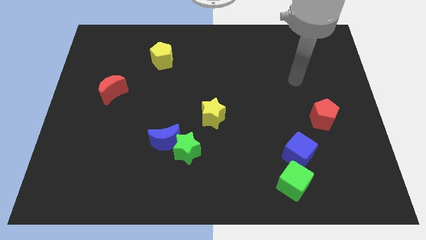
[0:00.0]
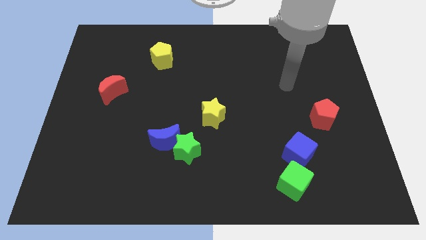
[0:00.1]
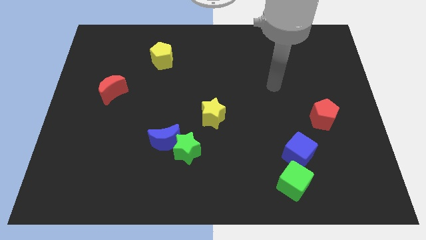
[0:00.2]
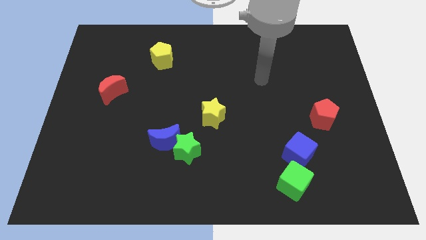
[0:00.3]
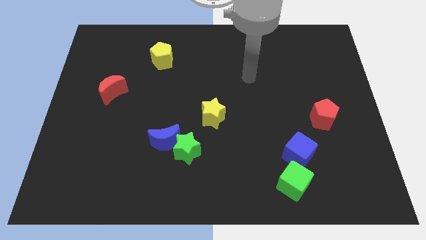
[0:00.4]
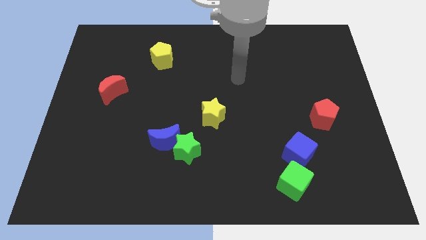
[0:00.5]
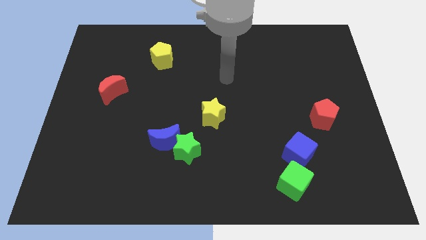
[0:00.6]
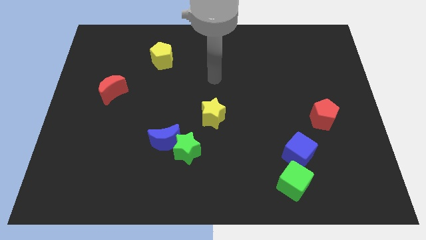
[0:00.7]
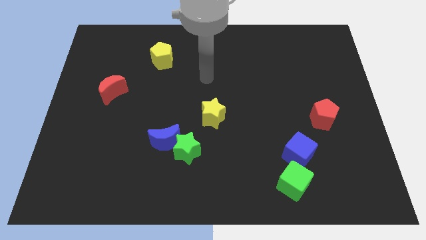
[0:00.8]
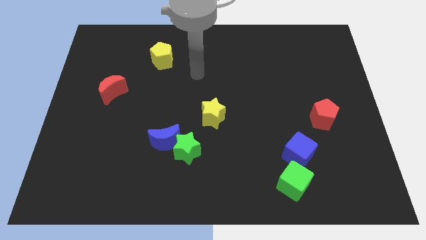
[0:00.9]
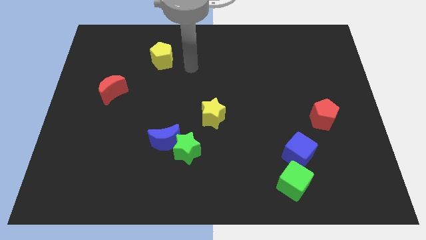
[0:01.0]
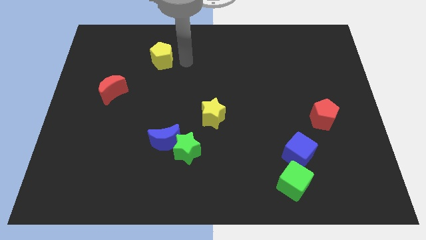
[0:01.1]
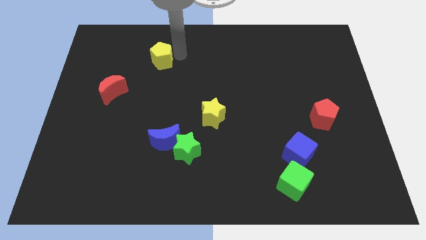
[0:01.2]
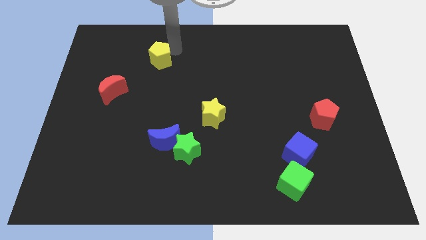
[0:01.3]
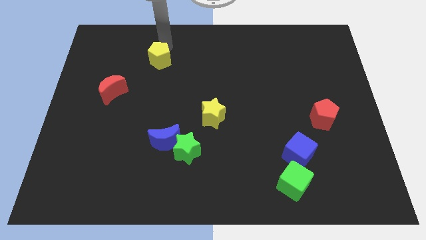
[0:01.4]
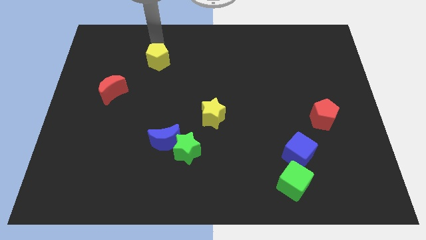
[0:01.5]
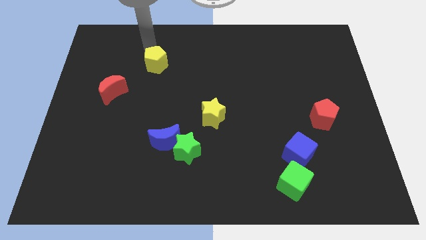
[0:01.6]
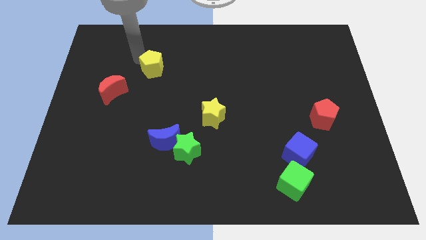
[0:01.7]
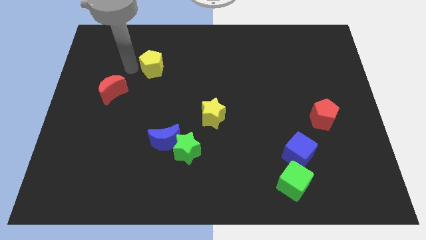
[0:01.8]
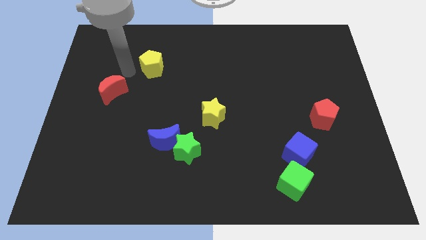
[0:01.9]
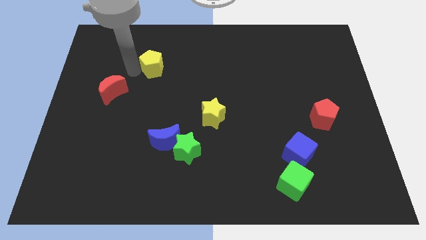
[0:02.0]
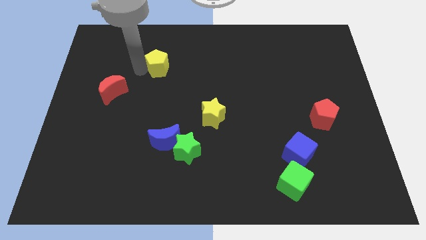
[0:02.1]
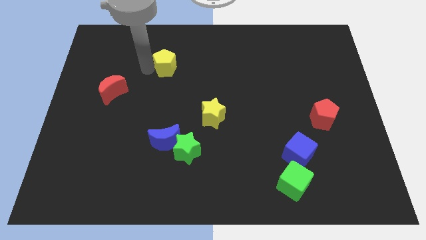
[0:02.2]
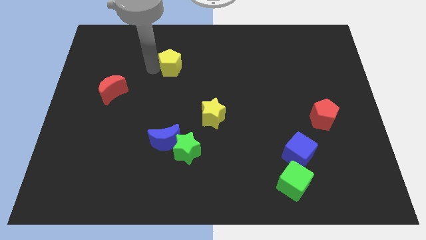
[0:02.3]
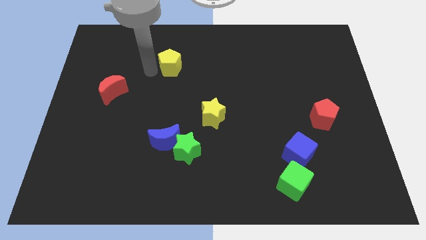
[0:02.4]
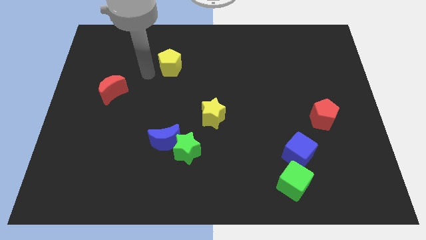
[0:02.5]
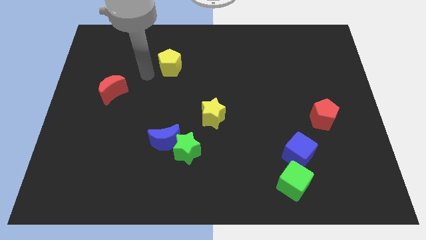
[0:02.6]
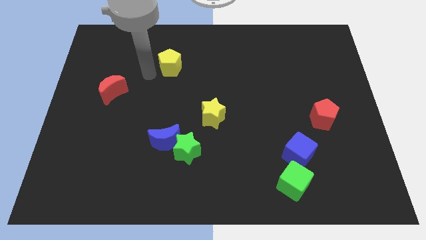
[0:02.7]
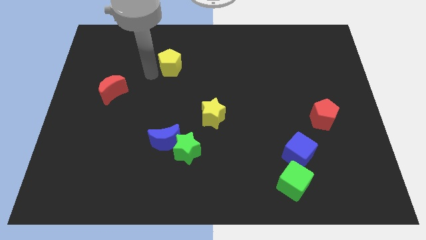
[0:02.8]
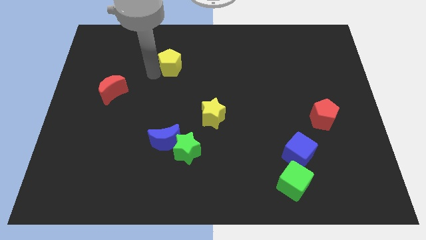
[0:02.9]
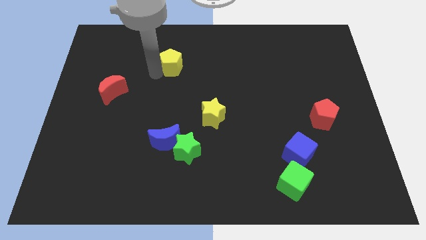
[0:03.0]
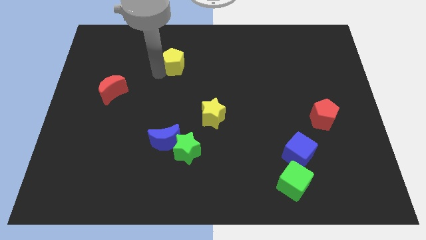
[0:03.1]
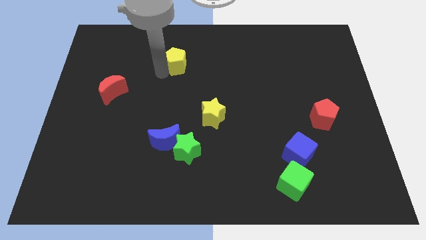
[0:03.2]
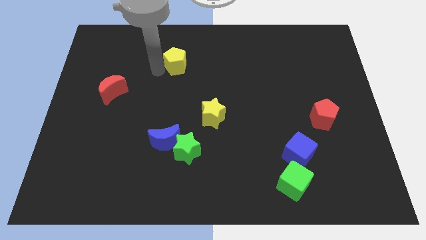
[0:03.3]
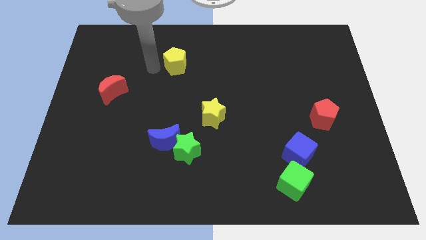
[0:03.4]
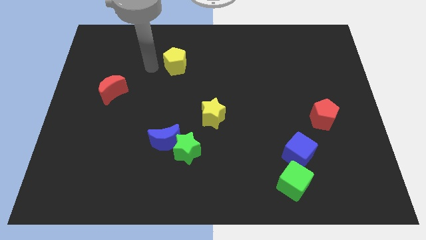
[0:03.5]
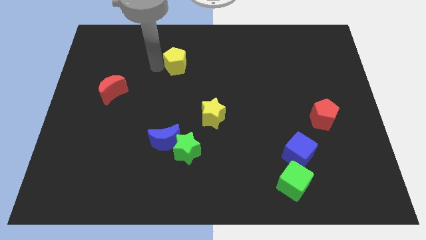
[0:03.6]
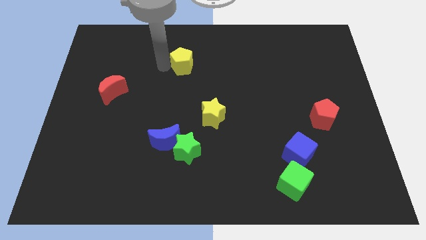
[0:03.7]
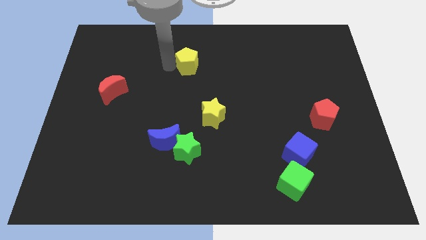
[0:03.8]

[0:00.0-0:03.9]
slightly move the yellow pentagon to the right

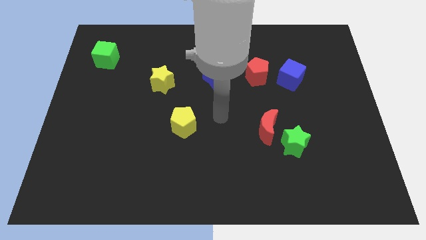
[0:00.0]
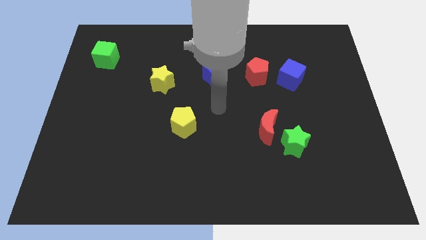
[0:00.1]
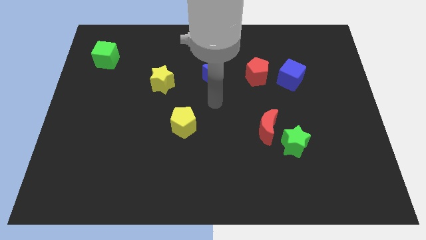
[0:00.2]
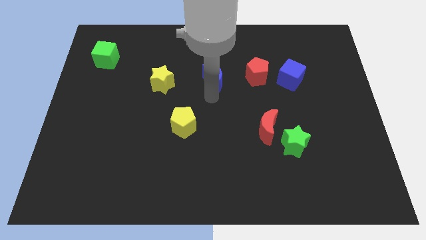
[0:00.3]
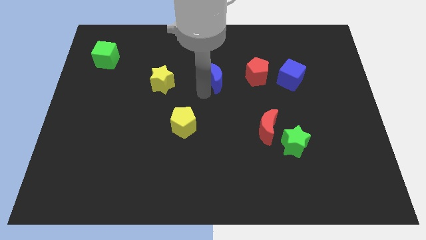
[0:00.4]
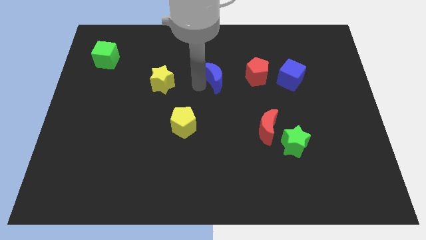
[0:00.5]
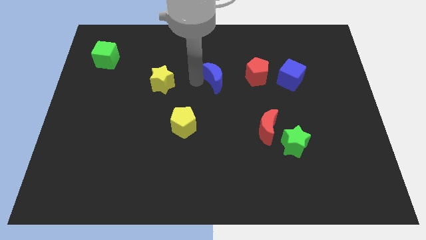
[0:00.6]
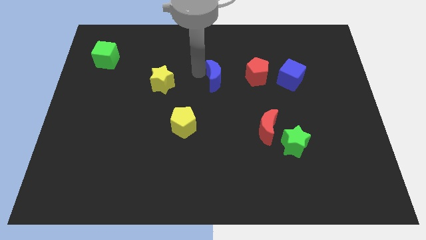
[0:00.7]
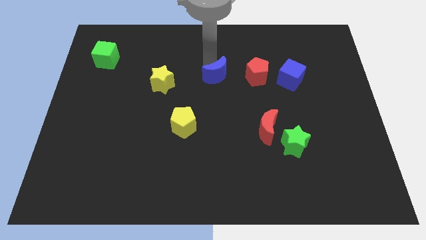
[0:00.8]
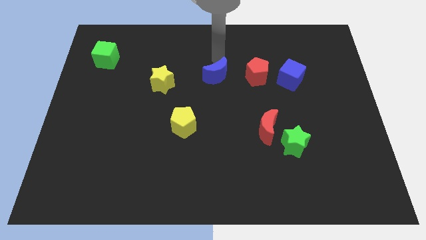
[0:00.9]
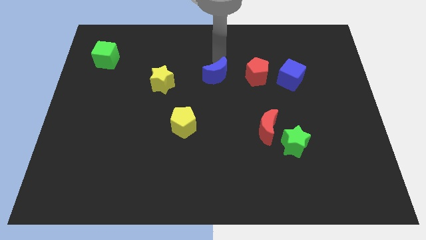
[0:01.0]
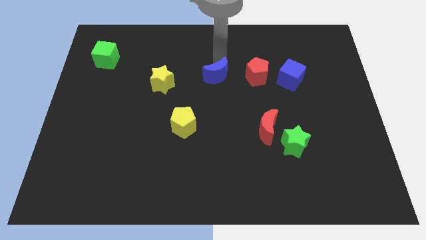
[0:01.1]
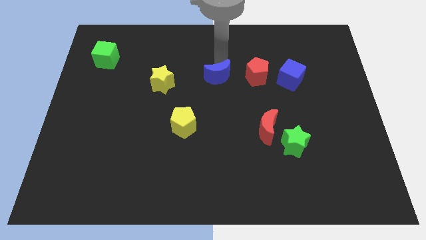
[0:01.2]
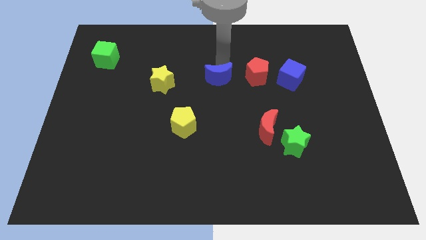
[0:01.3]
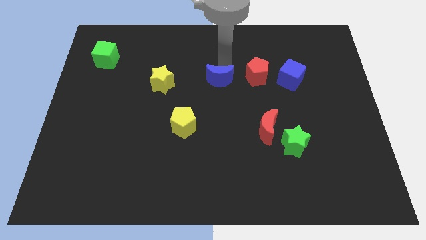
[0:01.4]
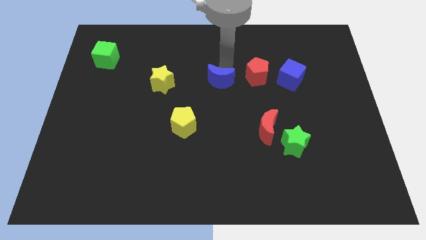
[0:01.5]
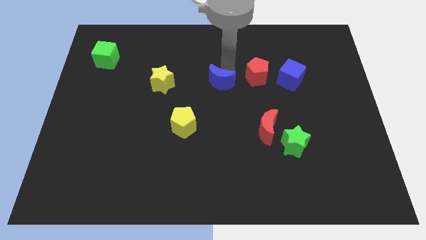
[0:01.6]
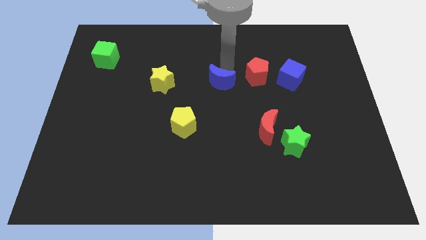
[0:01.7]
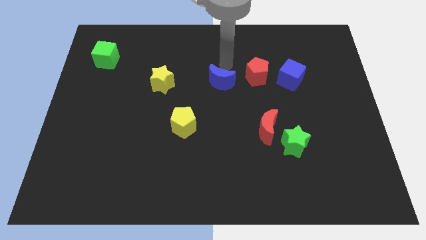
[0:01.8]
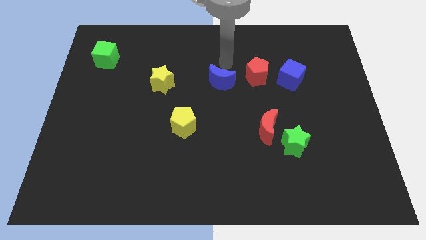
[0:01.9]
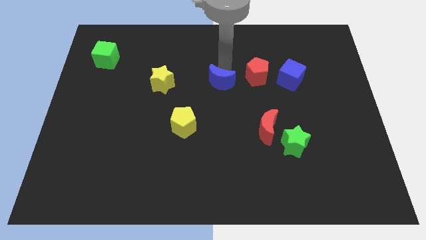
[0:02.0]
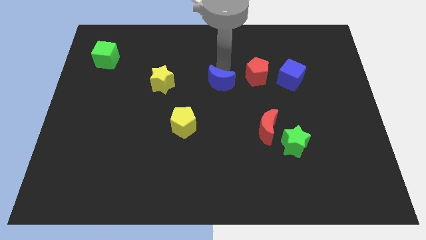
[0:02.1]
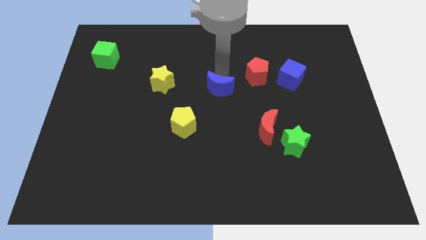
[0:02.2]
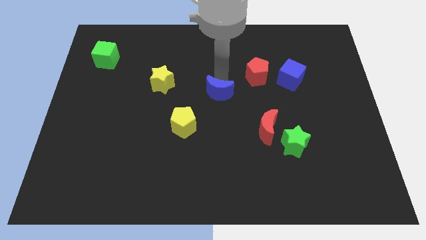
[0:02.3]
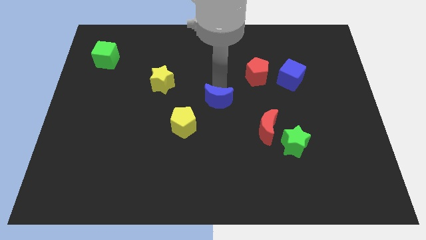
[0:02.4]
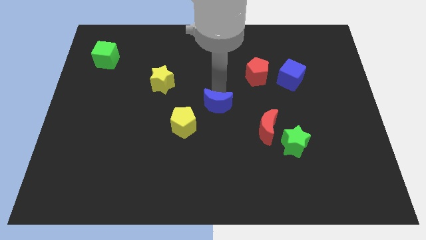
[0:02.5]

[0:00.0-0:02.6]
slide the blue moon somewhat down

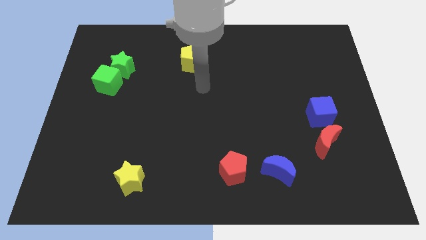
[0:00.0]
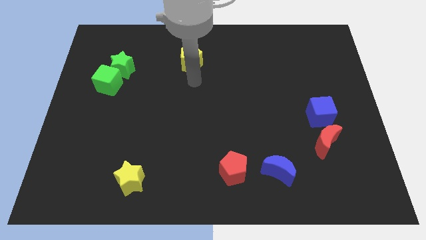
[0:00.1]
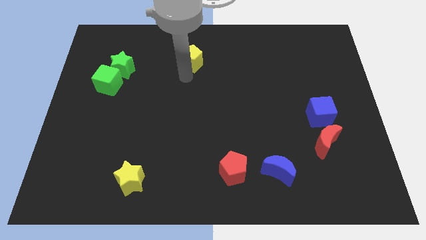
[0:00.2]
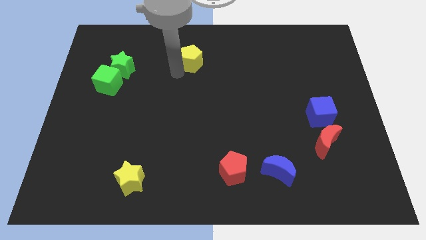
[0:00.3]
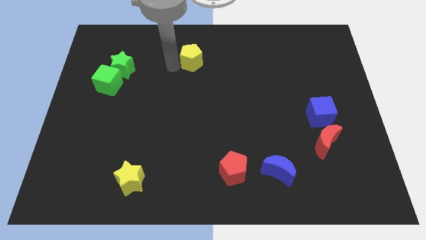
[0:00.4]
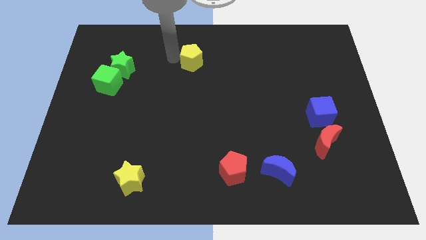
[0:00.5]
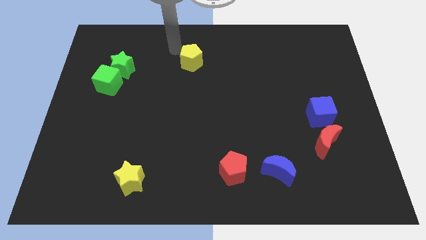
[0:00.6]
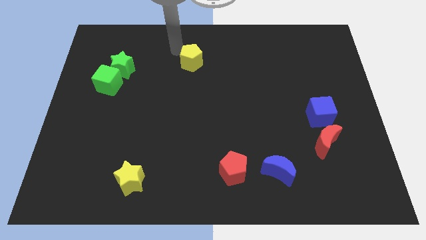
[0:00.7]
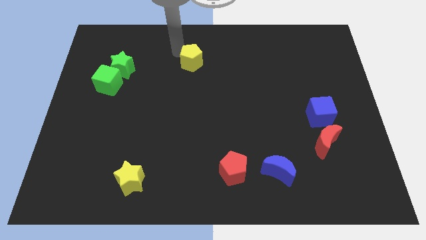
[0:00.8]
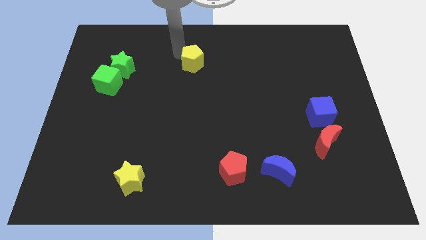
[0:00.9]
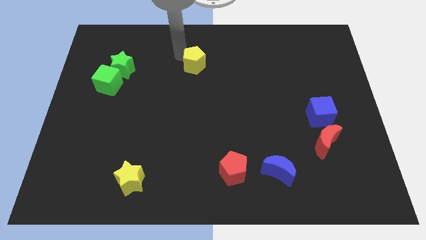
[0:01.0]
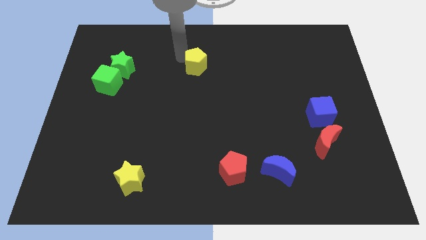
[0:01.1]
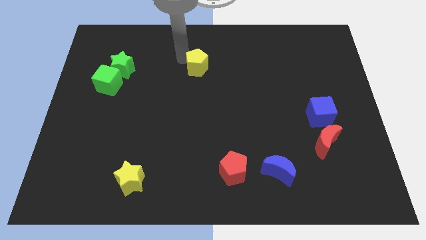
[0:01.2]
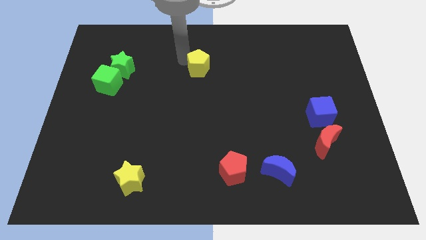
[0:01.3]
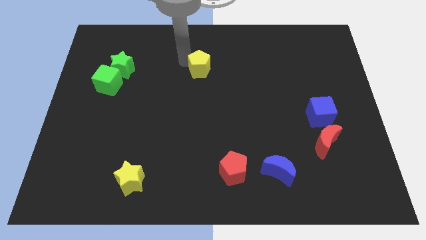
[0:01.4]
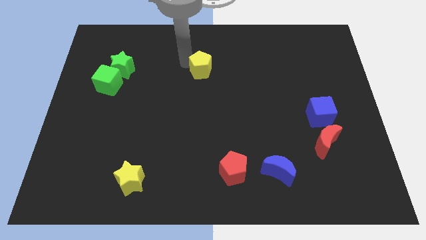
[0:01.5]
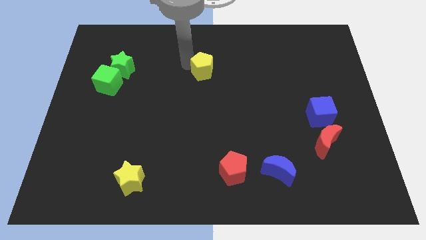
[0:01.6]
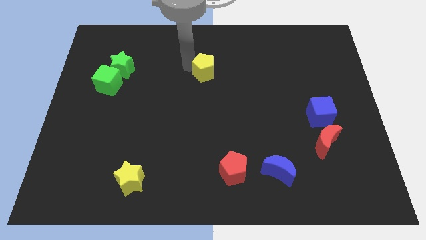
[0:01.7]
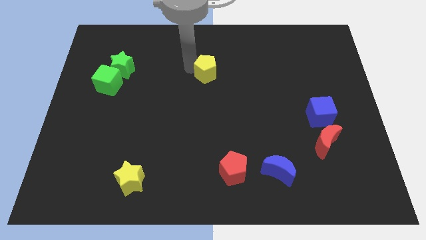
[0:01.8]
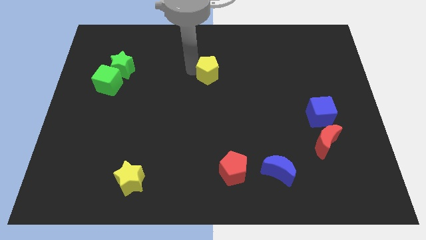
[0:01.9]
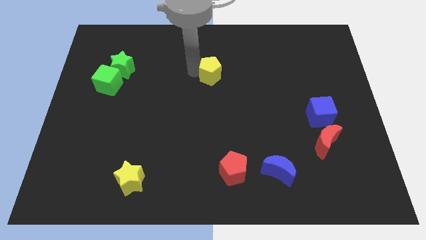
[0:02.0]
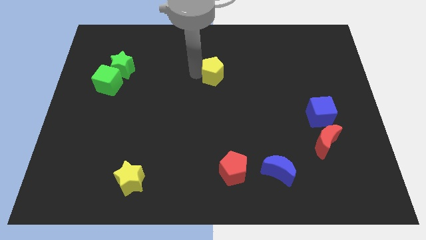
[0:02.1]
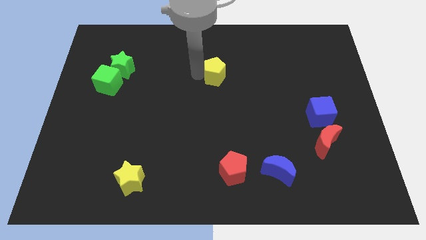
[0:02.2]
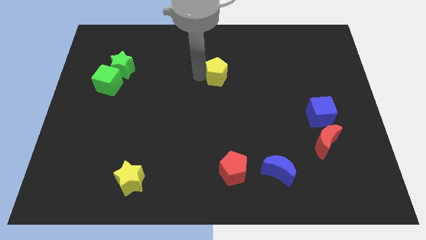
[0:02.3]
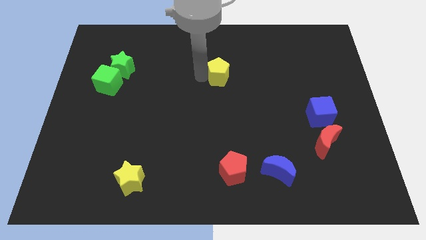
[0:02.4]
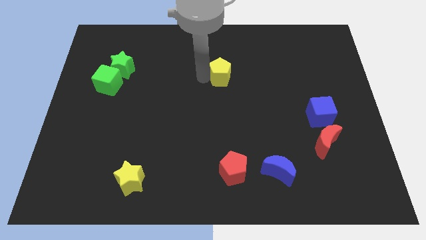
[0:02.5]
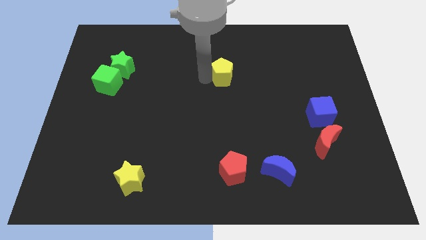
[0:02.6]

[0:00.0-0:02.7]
push the yellow pentagon a little bit right
